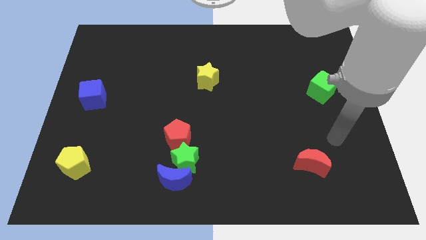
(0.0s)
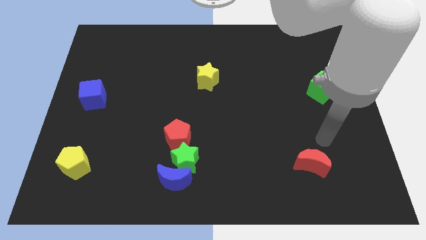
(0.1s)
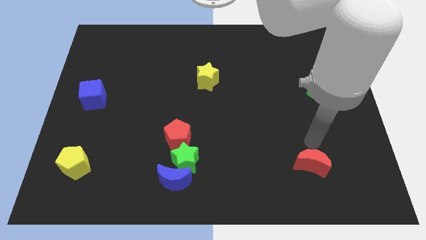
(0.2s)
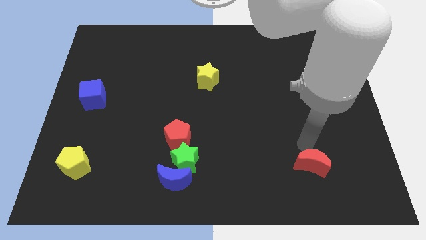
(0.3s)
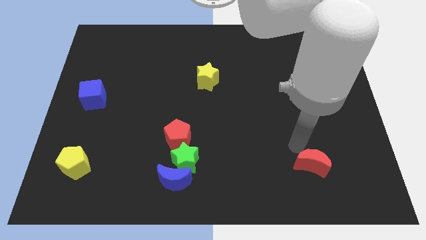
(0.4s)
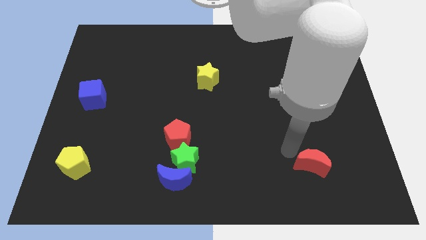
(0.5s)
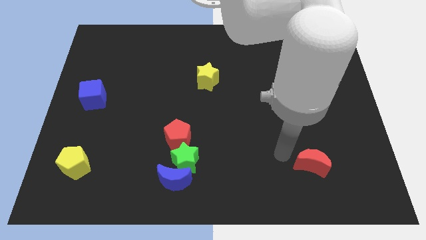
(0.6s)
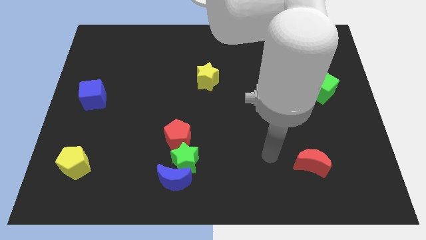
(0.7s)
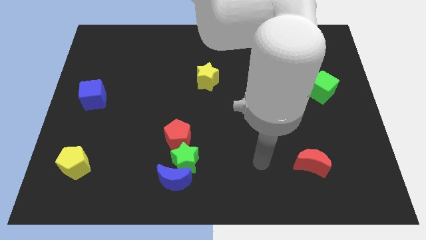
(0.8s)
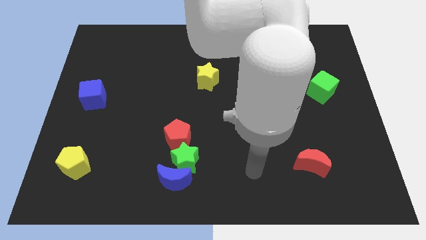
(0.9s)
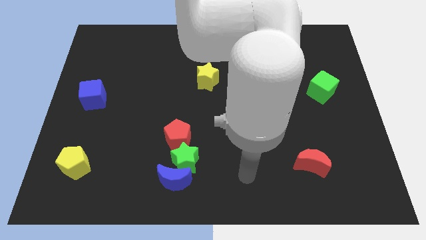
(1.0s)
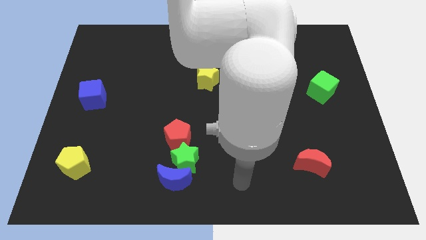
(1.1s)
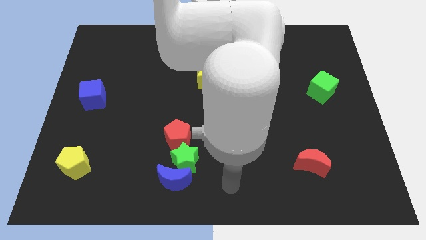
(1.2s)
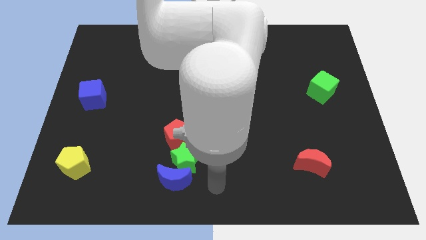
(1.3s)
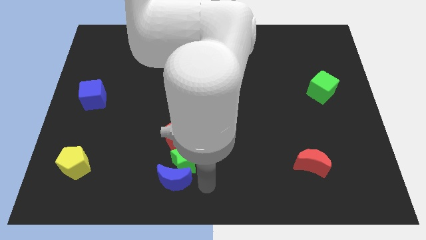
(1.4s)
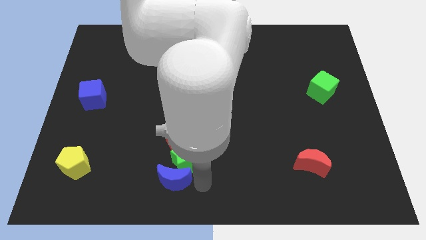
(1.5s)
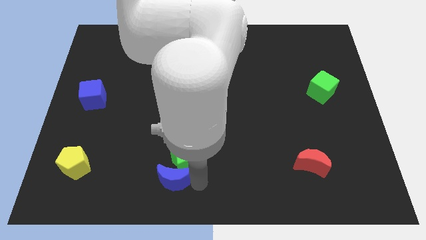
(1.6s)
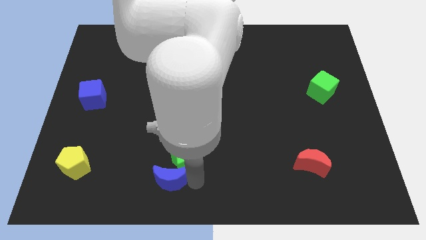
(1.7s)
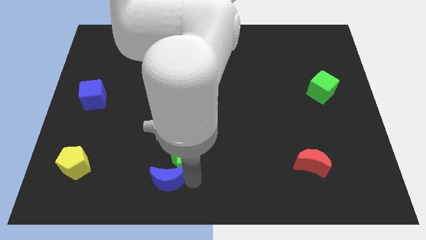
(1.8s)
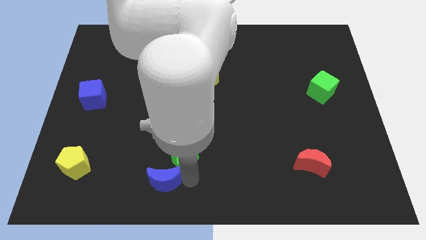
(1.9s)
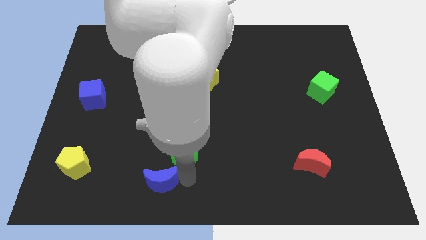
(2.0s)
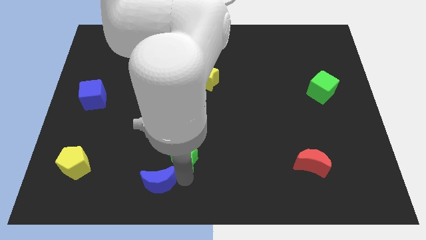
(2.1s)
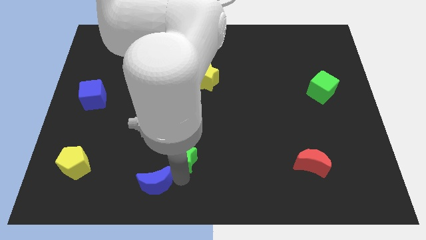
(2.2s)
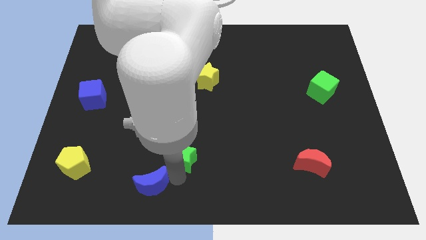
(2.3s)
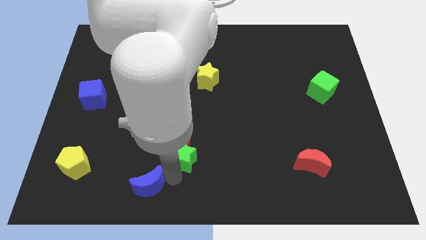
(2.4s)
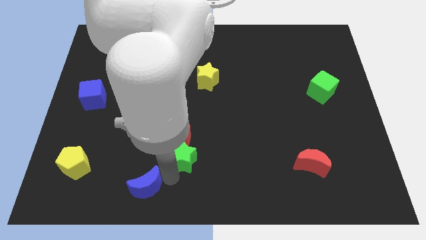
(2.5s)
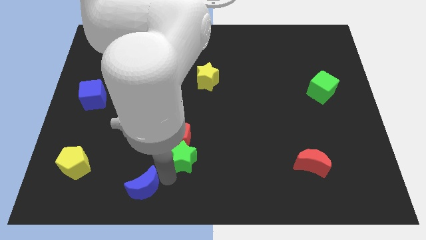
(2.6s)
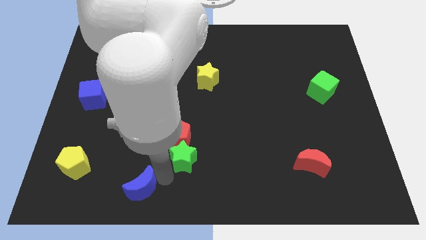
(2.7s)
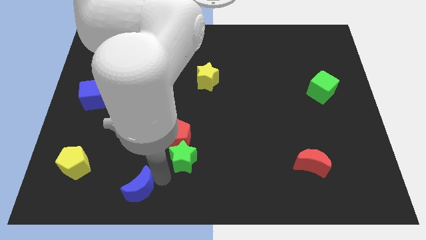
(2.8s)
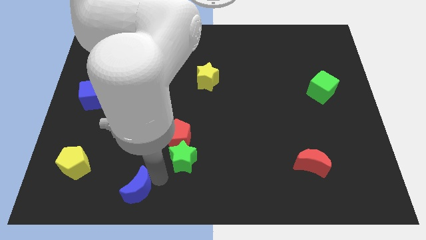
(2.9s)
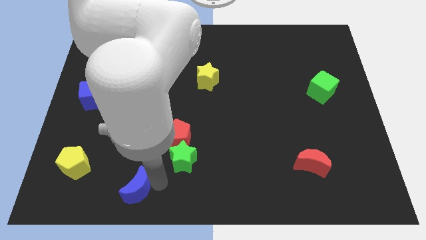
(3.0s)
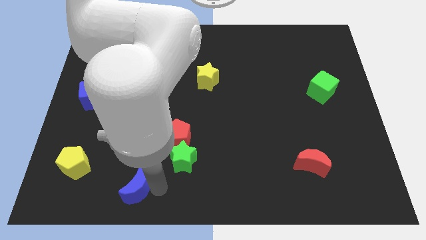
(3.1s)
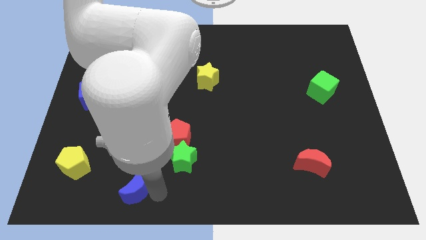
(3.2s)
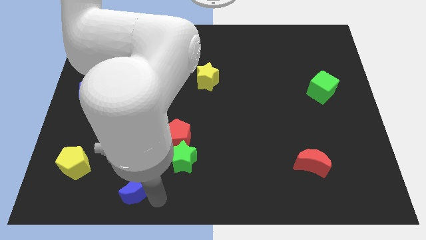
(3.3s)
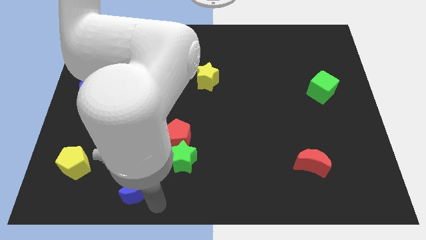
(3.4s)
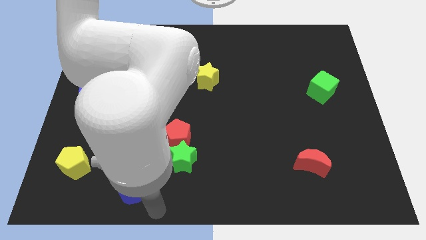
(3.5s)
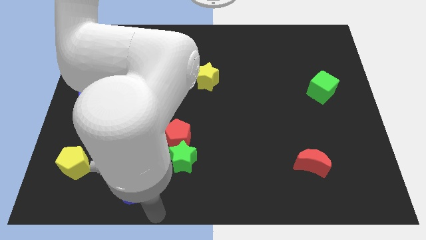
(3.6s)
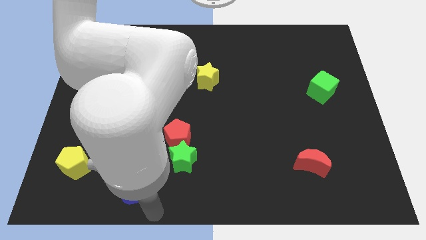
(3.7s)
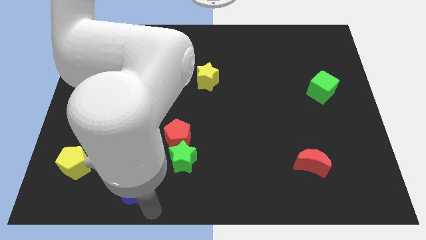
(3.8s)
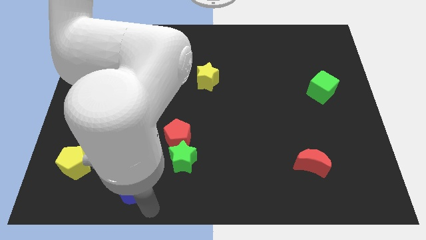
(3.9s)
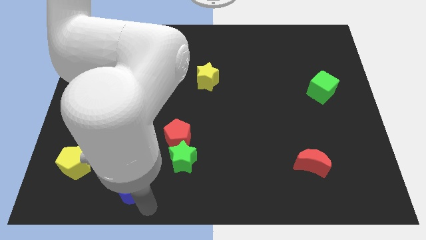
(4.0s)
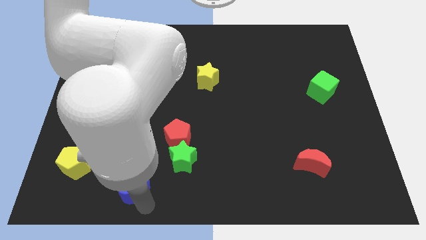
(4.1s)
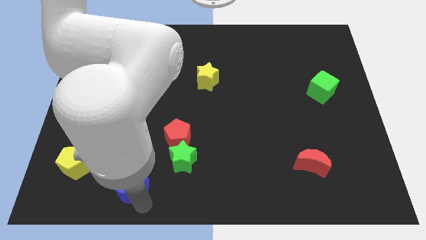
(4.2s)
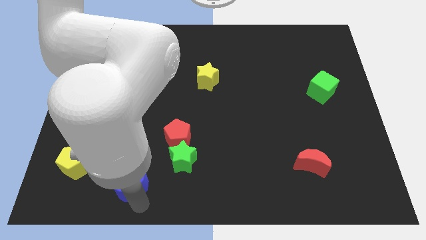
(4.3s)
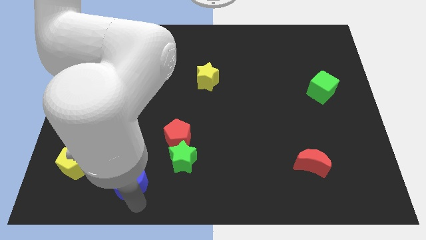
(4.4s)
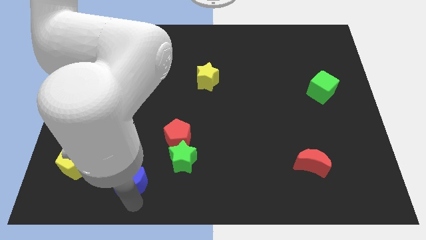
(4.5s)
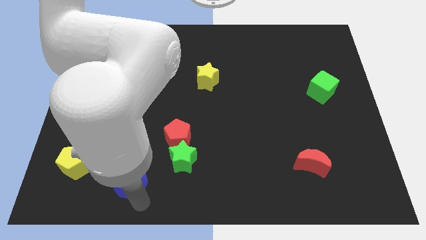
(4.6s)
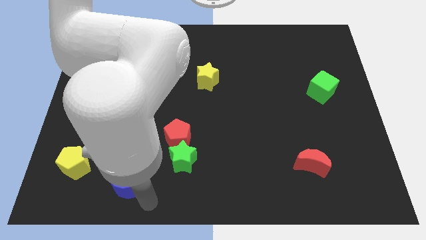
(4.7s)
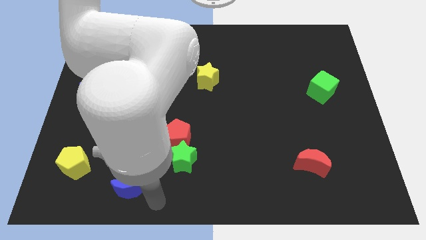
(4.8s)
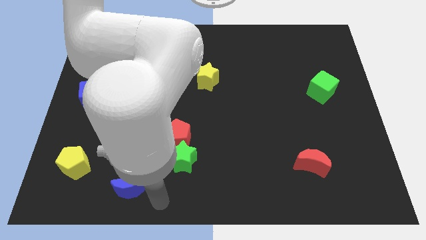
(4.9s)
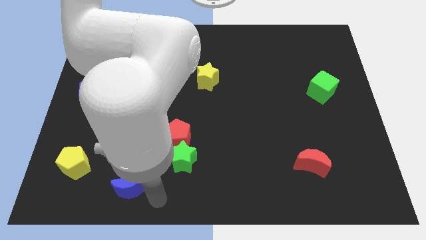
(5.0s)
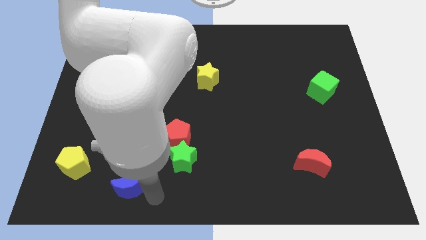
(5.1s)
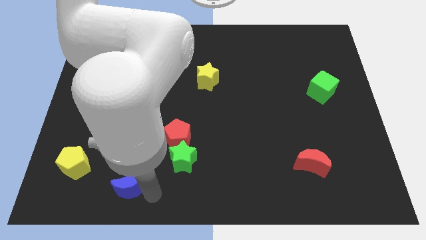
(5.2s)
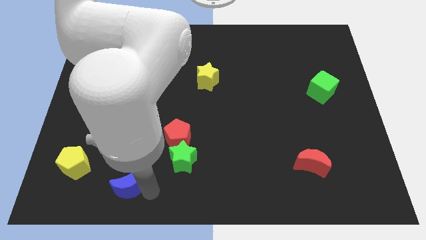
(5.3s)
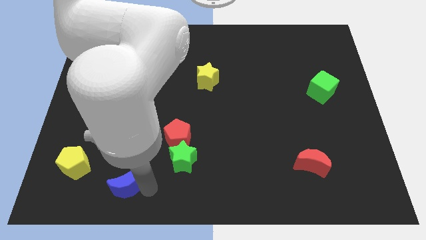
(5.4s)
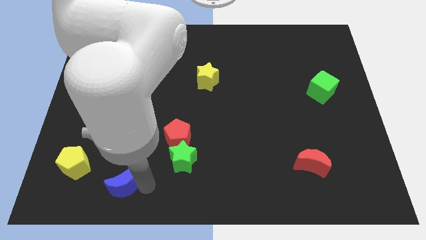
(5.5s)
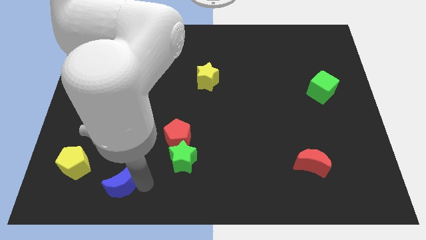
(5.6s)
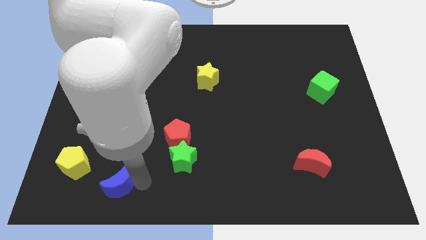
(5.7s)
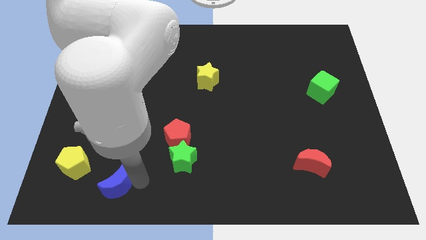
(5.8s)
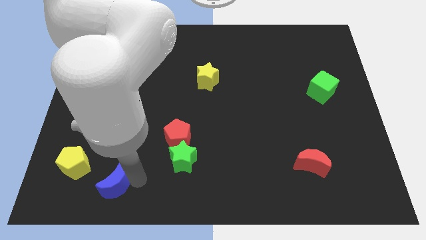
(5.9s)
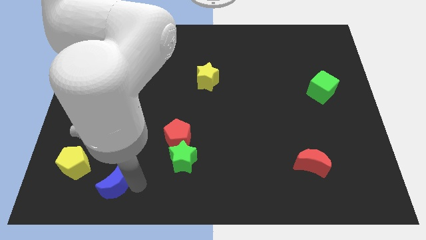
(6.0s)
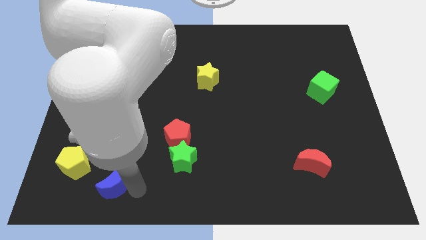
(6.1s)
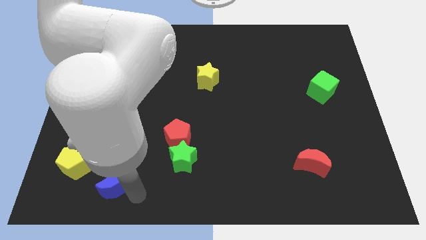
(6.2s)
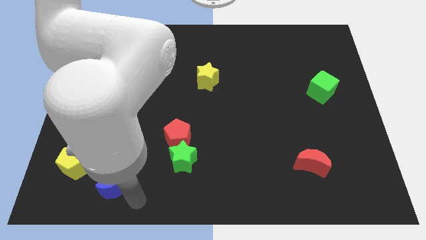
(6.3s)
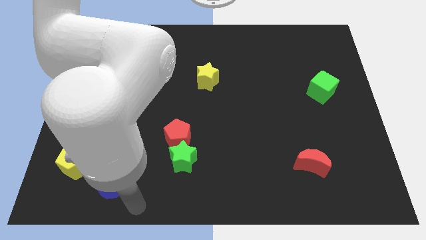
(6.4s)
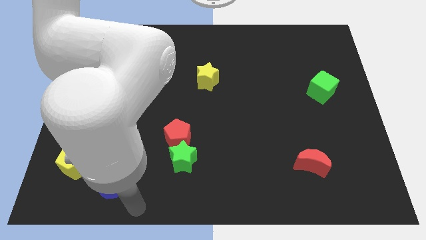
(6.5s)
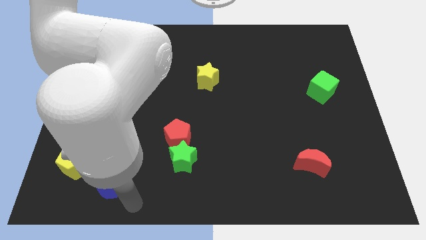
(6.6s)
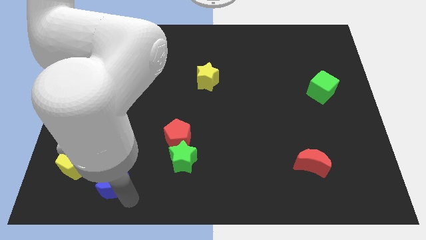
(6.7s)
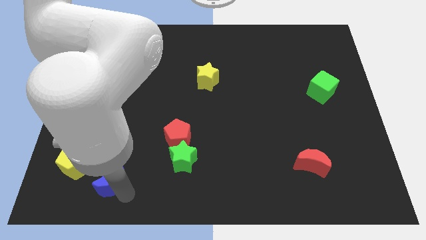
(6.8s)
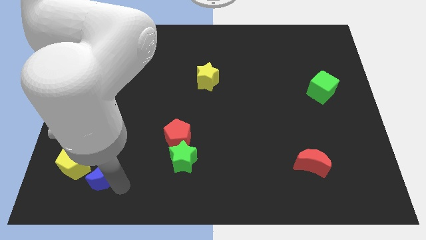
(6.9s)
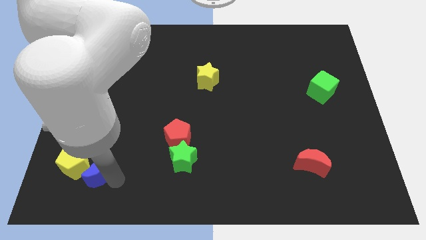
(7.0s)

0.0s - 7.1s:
push the blue moon to the yellow pentagon
